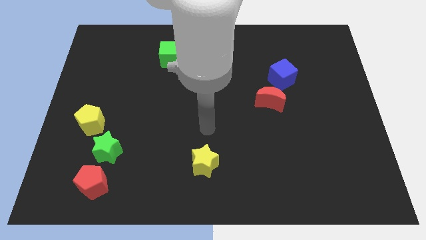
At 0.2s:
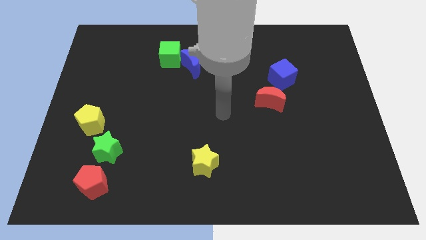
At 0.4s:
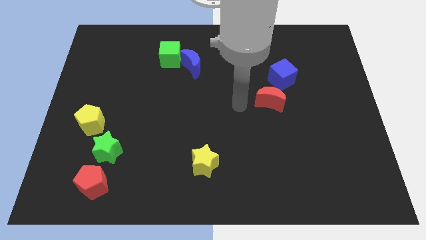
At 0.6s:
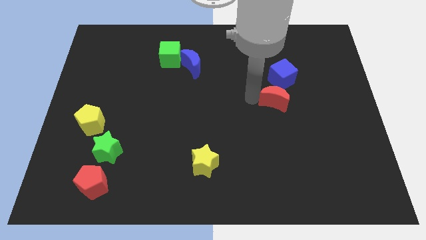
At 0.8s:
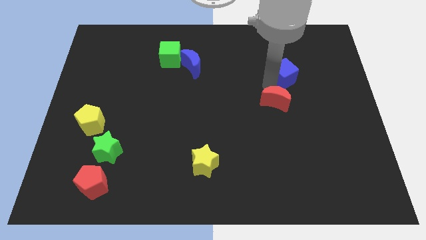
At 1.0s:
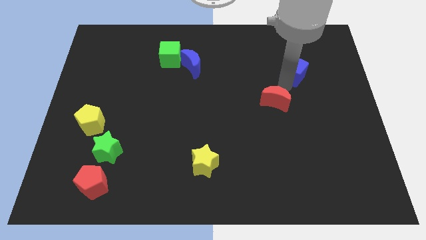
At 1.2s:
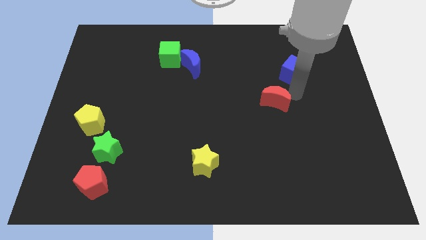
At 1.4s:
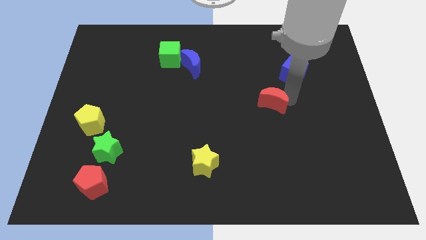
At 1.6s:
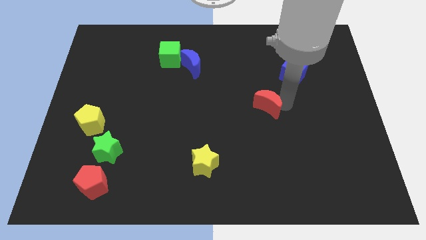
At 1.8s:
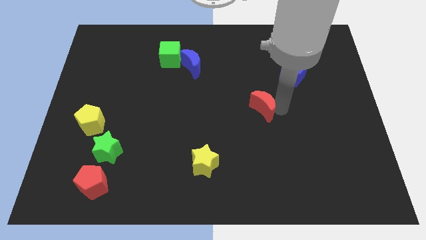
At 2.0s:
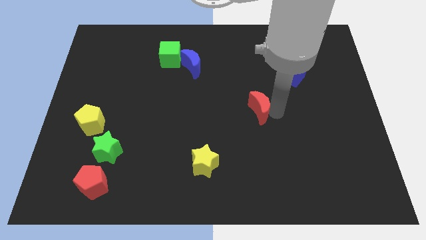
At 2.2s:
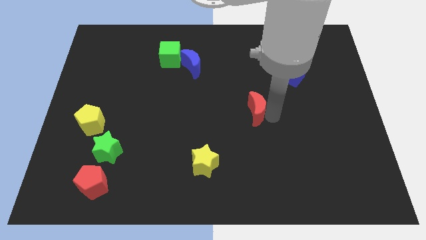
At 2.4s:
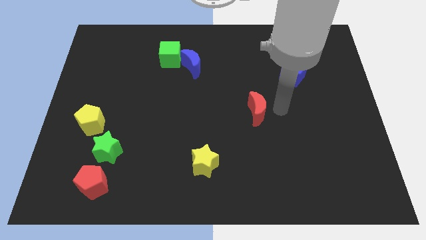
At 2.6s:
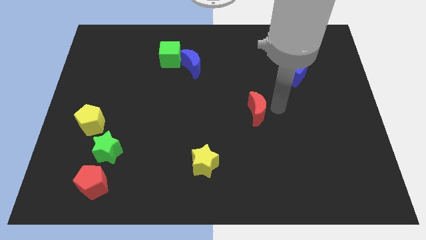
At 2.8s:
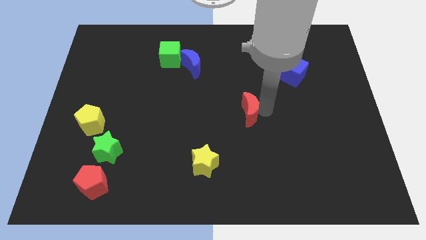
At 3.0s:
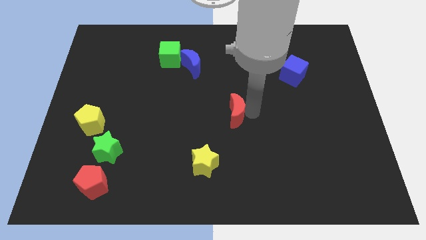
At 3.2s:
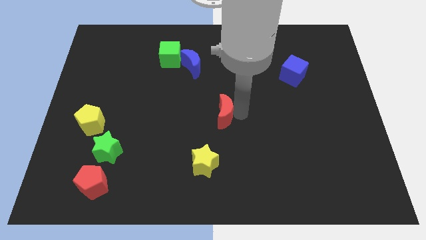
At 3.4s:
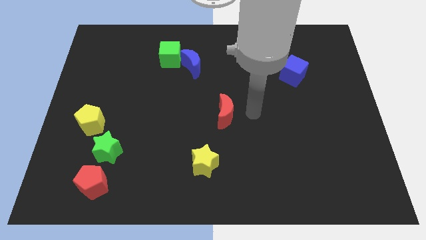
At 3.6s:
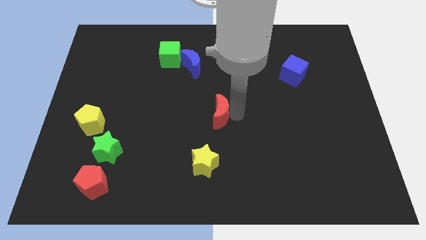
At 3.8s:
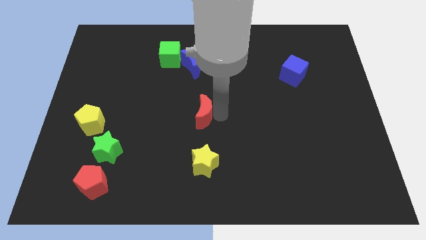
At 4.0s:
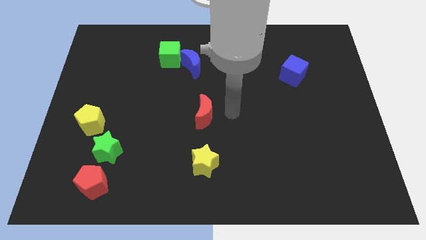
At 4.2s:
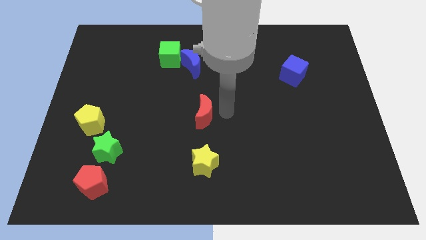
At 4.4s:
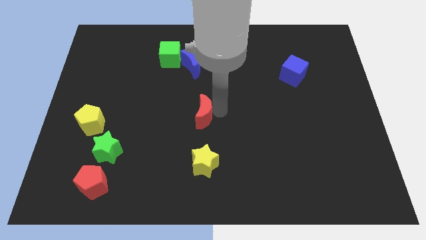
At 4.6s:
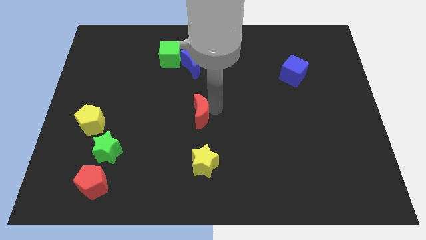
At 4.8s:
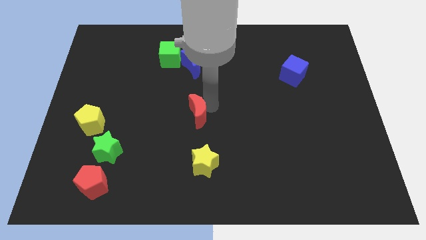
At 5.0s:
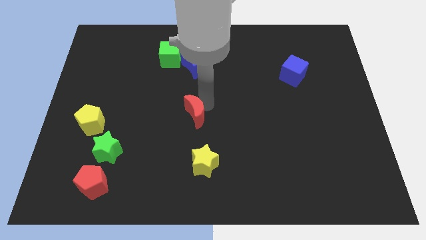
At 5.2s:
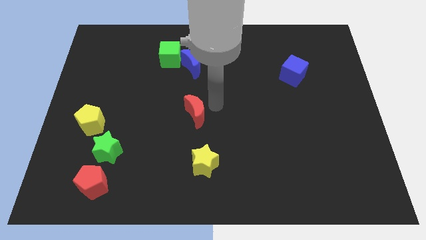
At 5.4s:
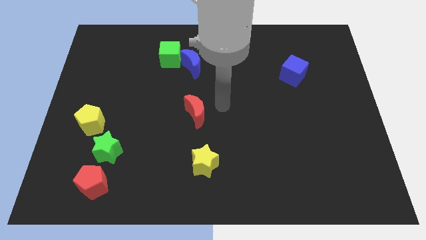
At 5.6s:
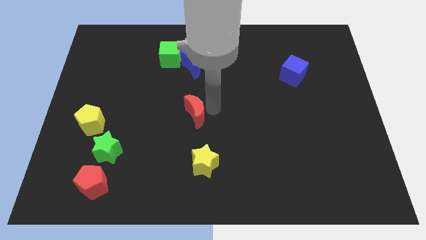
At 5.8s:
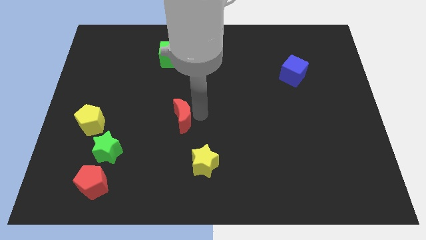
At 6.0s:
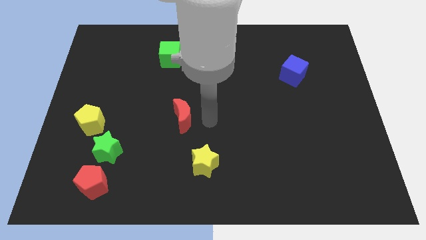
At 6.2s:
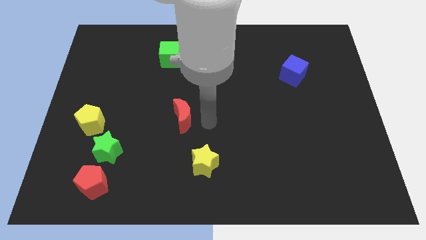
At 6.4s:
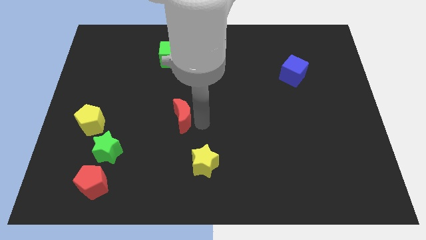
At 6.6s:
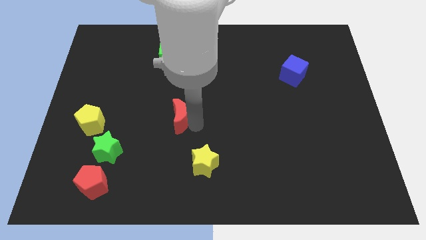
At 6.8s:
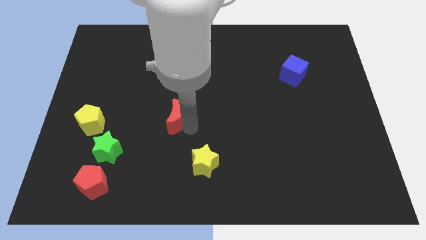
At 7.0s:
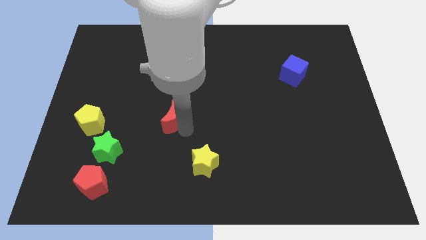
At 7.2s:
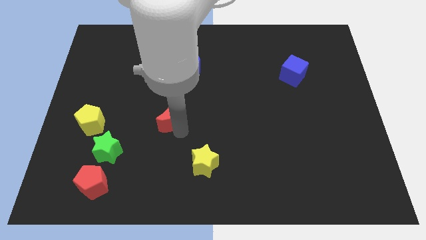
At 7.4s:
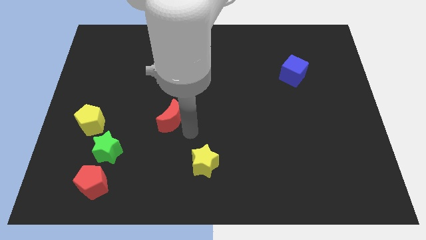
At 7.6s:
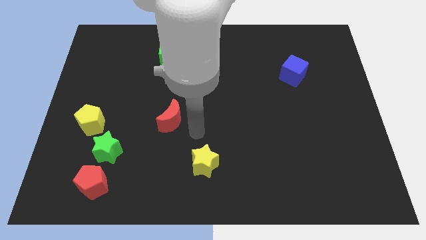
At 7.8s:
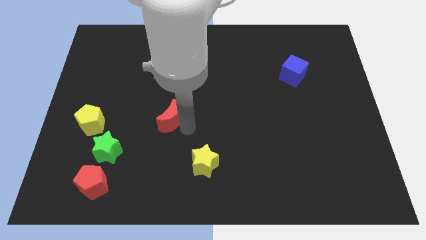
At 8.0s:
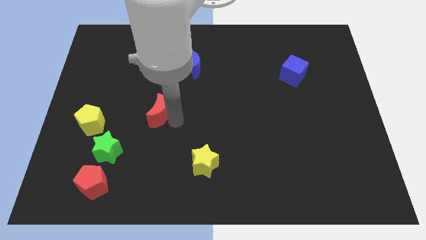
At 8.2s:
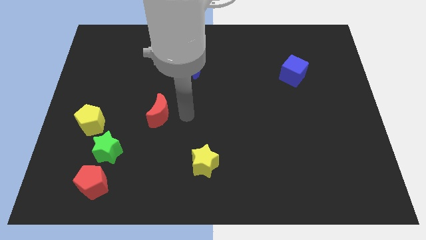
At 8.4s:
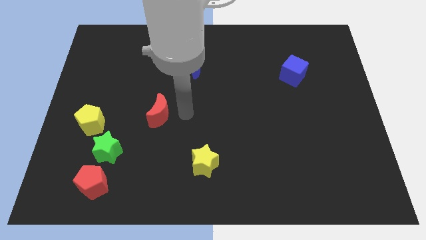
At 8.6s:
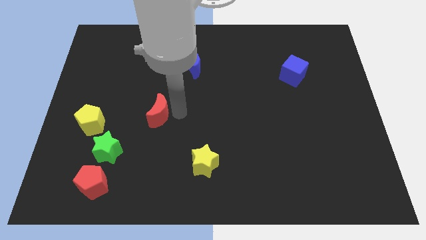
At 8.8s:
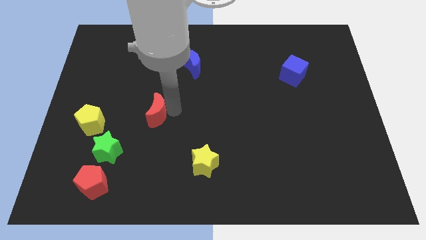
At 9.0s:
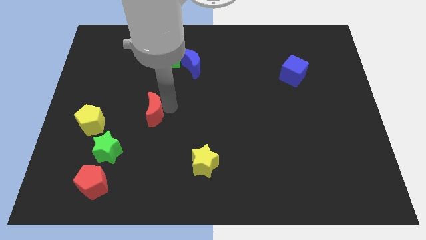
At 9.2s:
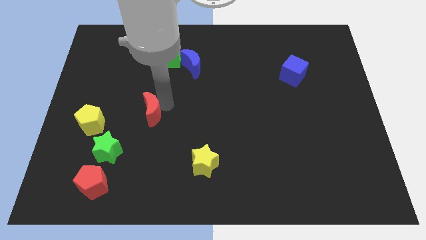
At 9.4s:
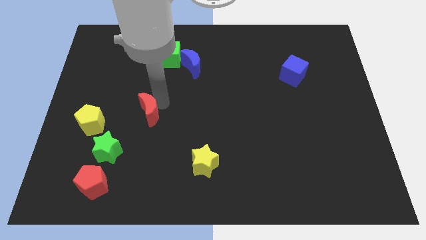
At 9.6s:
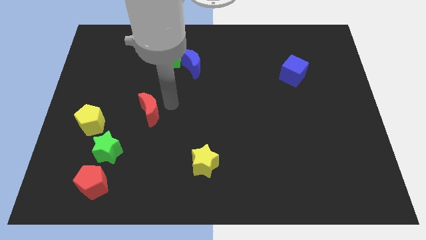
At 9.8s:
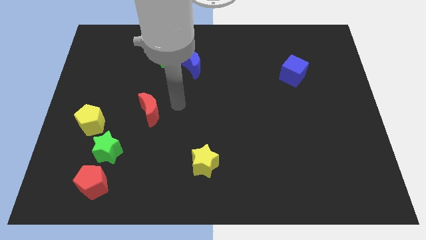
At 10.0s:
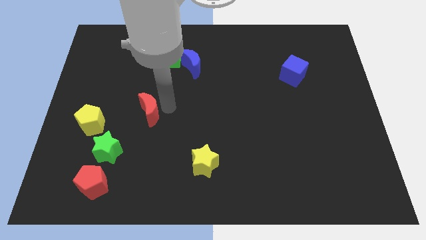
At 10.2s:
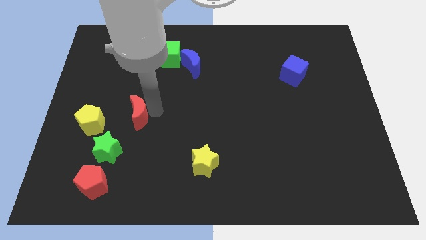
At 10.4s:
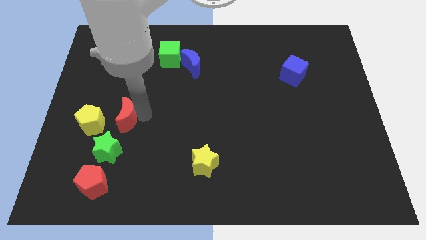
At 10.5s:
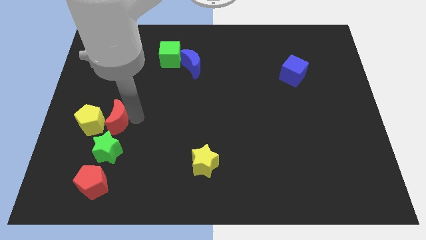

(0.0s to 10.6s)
put the red moon to the yellow pentagon

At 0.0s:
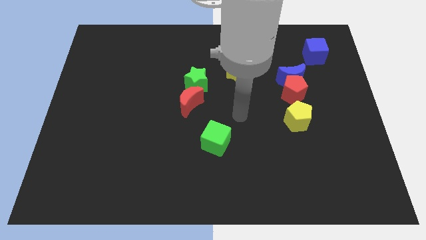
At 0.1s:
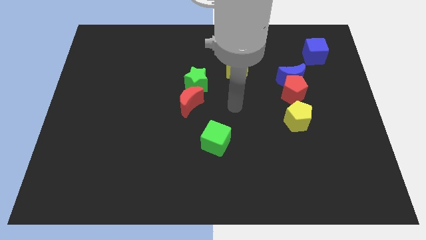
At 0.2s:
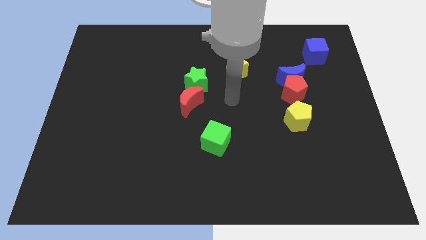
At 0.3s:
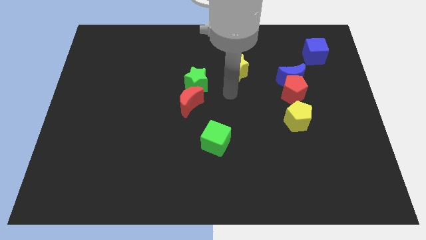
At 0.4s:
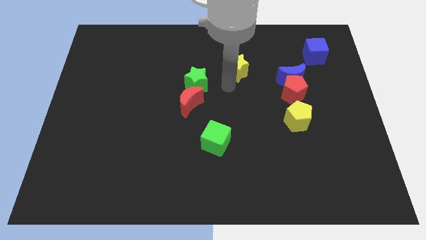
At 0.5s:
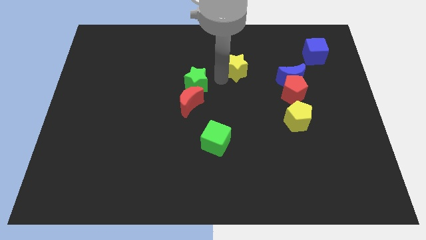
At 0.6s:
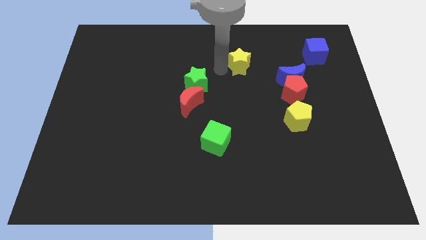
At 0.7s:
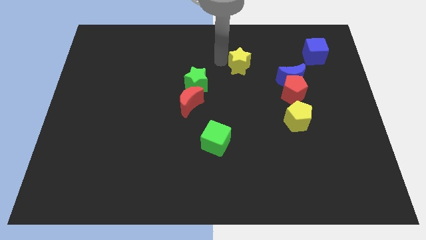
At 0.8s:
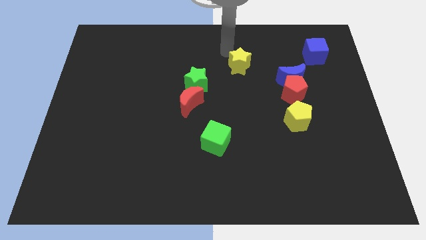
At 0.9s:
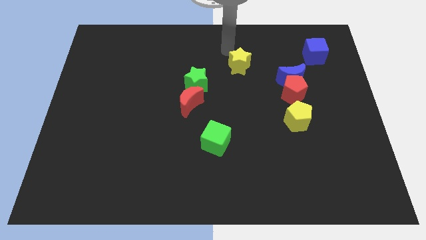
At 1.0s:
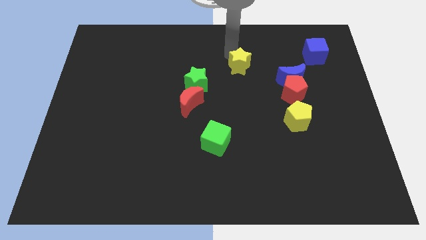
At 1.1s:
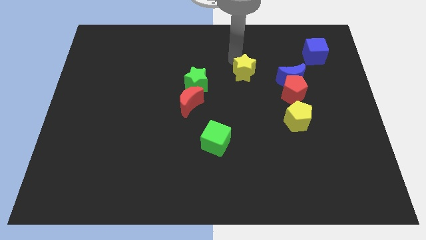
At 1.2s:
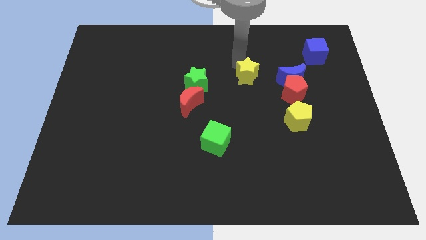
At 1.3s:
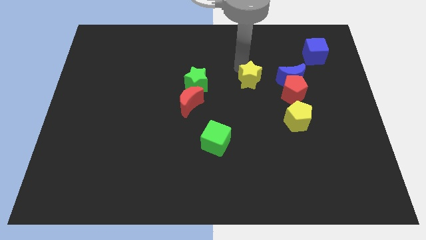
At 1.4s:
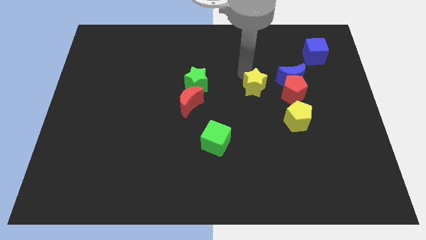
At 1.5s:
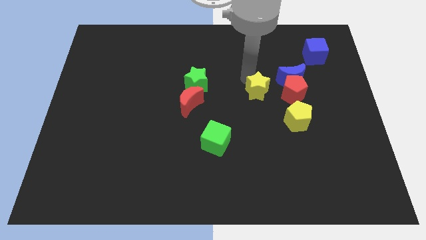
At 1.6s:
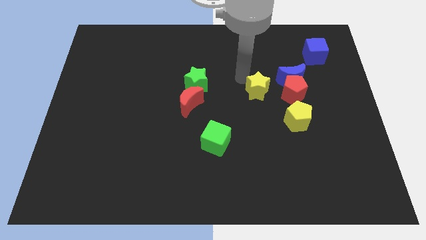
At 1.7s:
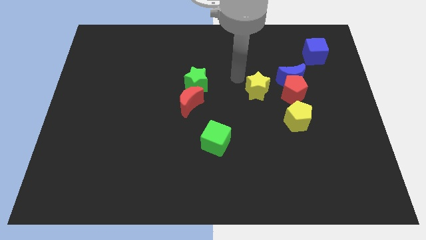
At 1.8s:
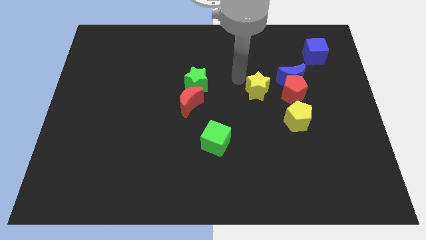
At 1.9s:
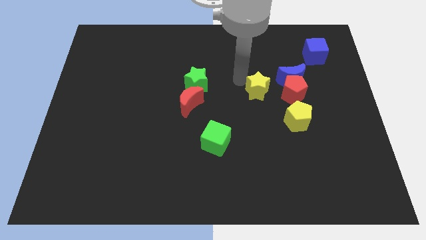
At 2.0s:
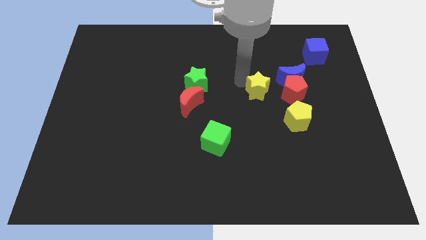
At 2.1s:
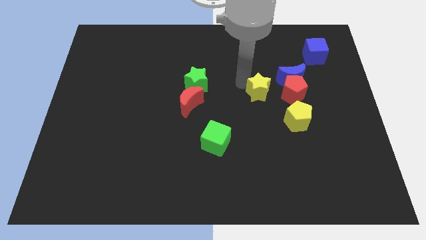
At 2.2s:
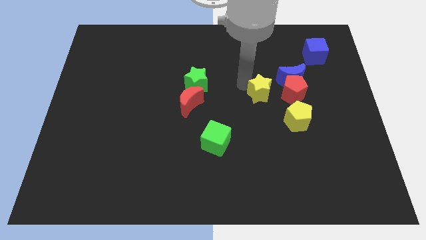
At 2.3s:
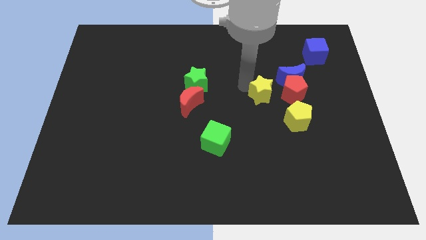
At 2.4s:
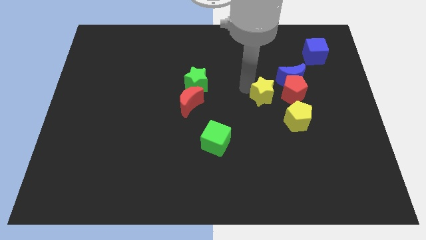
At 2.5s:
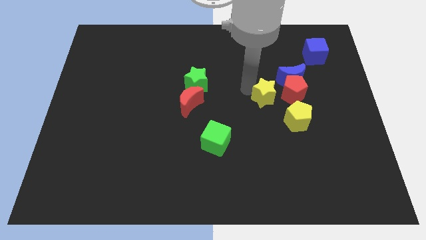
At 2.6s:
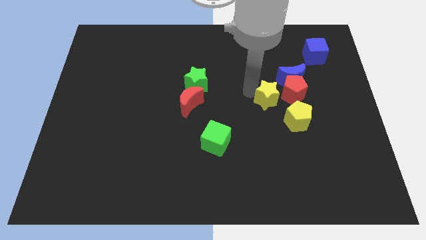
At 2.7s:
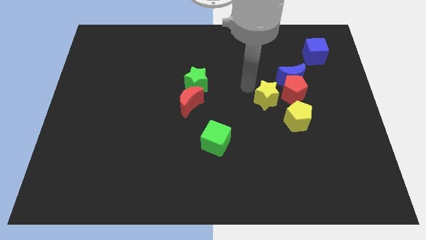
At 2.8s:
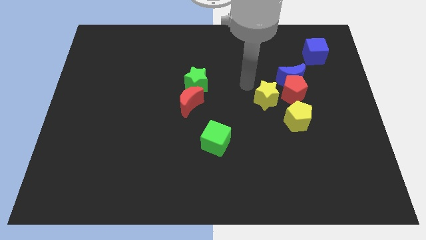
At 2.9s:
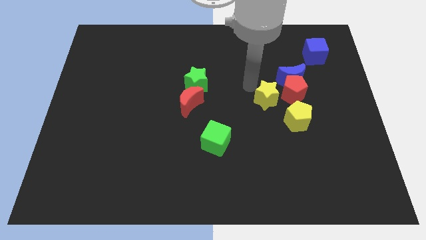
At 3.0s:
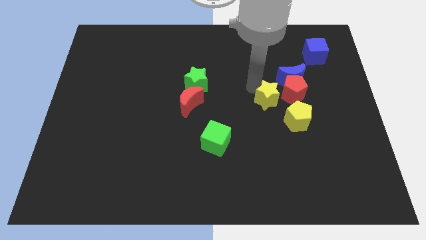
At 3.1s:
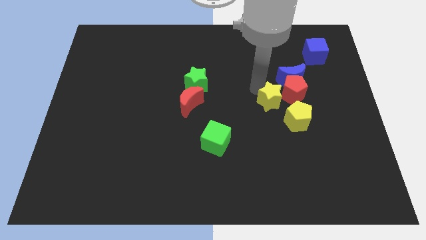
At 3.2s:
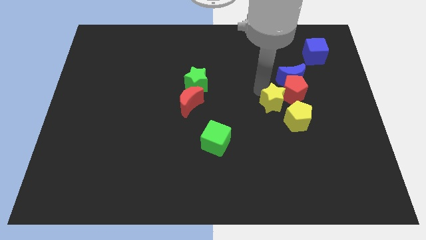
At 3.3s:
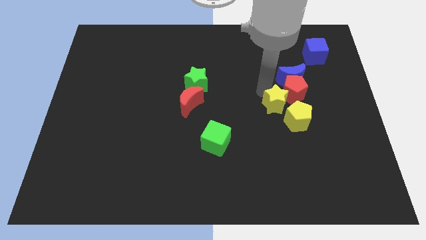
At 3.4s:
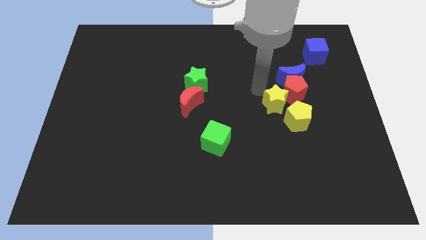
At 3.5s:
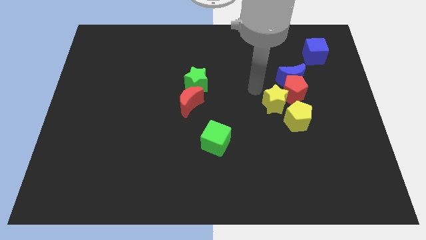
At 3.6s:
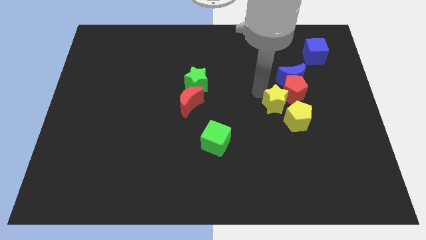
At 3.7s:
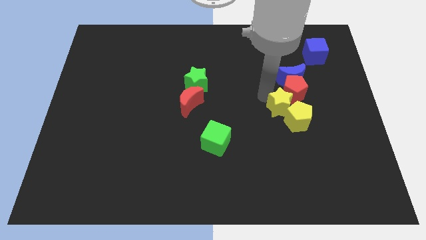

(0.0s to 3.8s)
slide the yellow star towards the yellow pentagon
